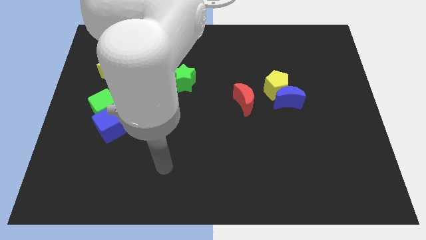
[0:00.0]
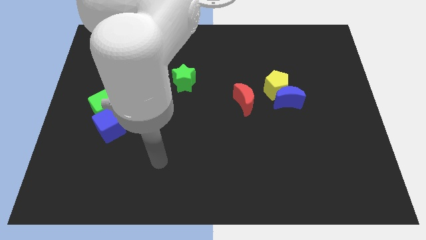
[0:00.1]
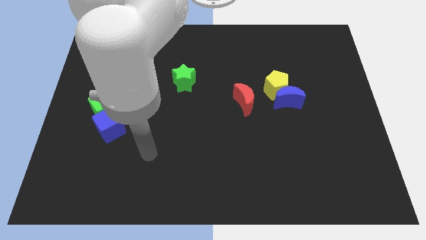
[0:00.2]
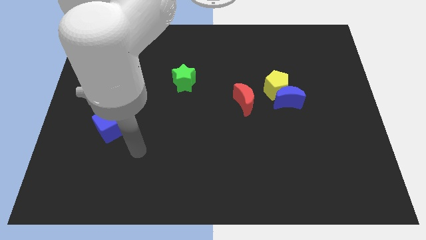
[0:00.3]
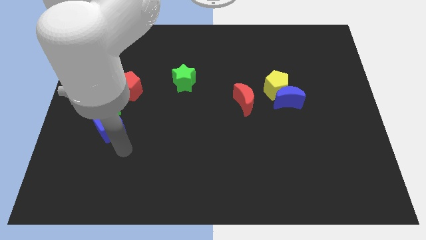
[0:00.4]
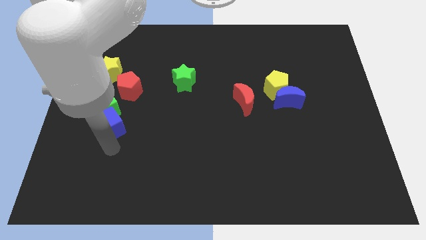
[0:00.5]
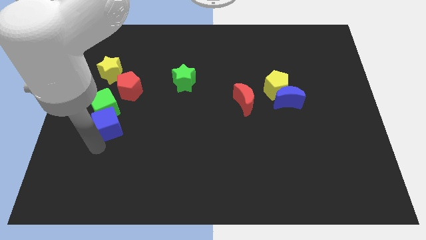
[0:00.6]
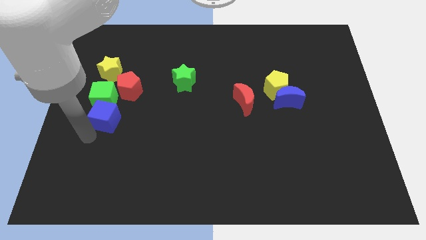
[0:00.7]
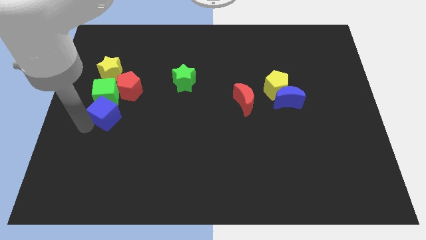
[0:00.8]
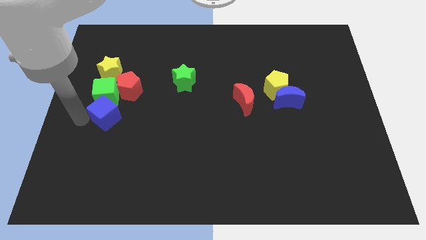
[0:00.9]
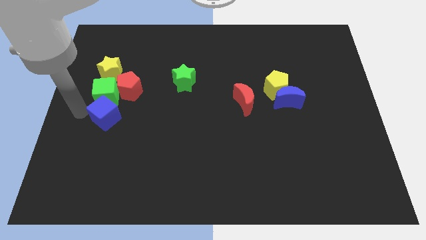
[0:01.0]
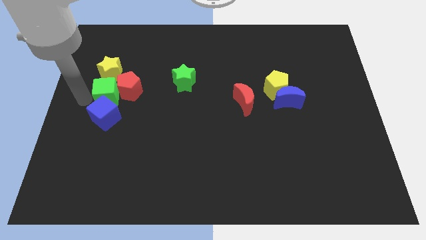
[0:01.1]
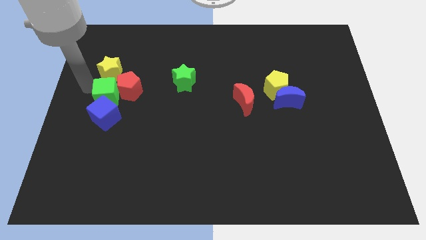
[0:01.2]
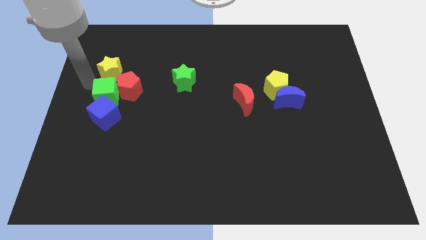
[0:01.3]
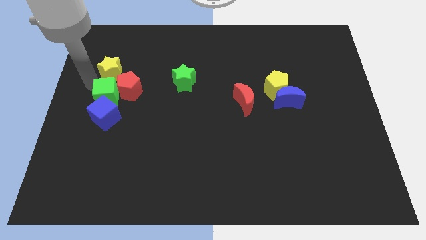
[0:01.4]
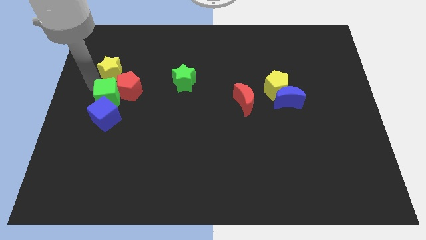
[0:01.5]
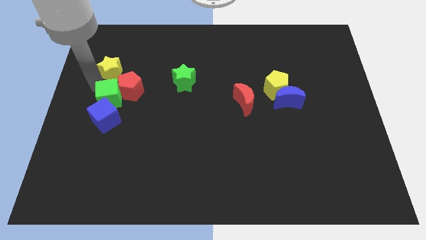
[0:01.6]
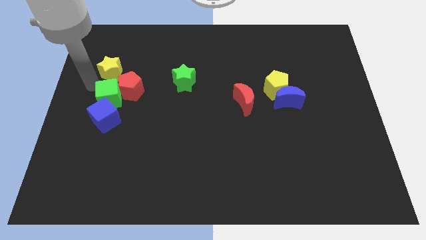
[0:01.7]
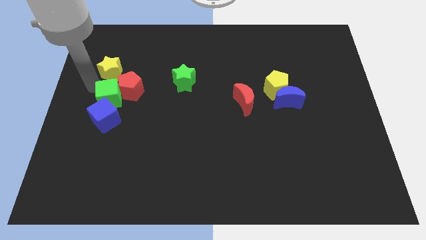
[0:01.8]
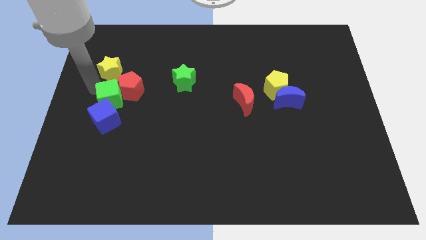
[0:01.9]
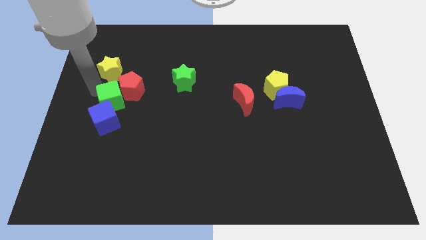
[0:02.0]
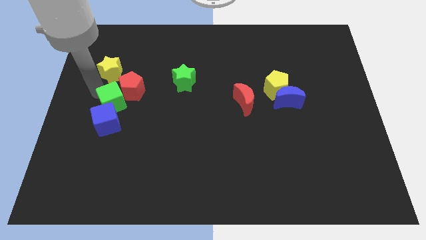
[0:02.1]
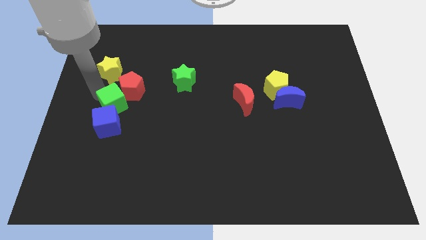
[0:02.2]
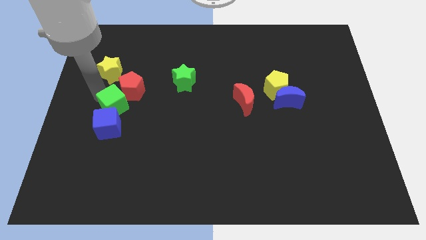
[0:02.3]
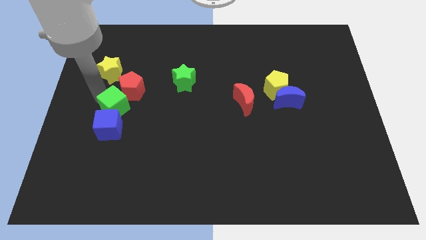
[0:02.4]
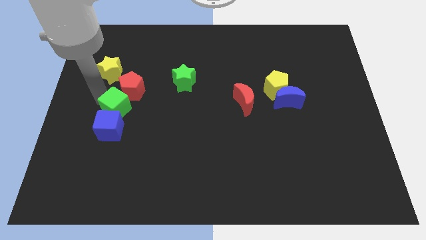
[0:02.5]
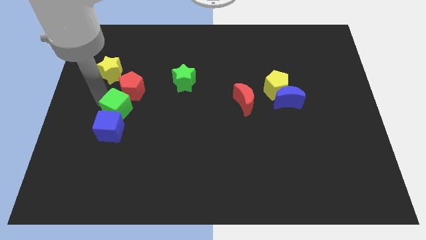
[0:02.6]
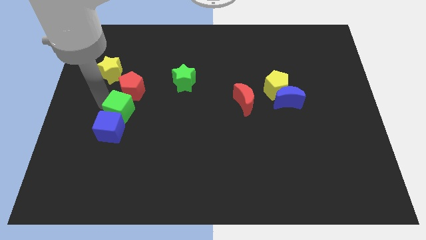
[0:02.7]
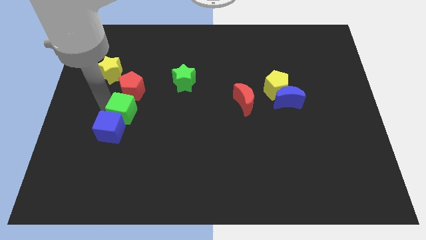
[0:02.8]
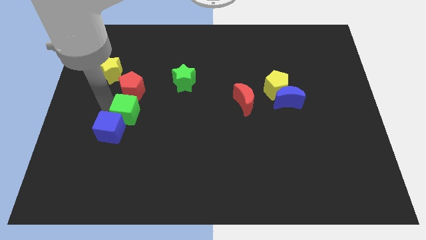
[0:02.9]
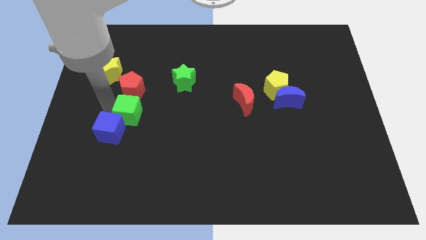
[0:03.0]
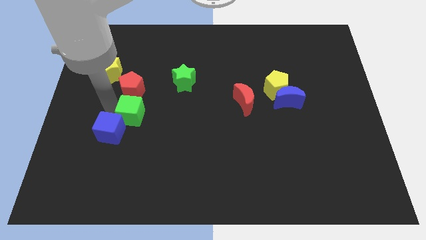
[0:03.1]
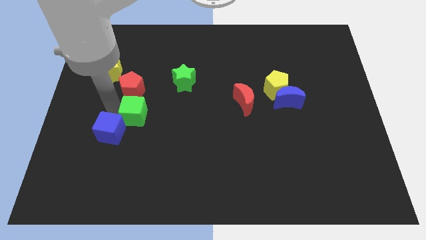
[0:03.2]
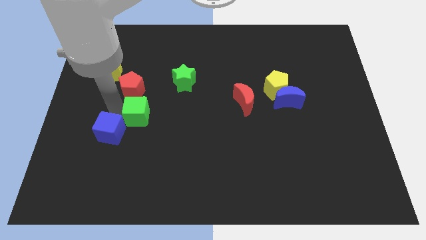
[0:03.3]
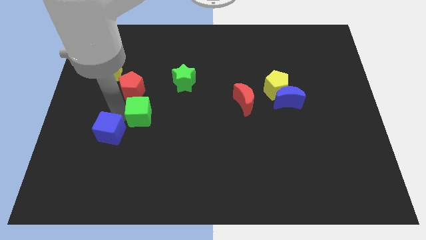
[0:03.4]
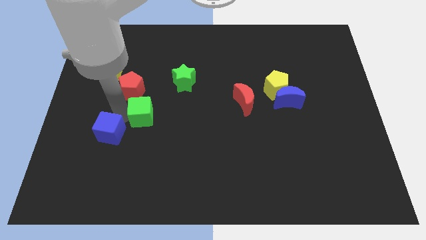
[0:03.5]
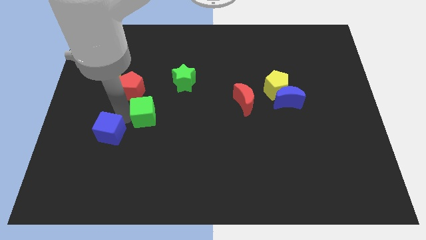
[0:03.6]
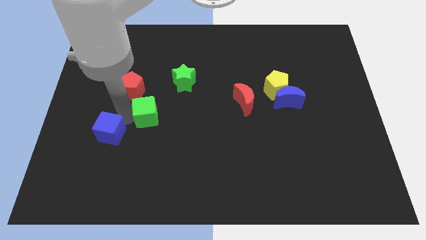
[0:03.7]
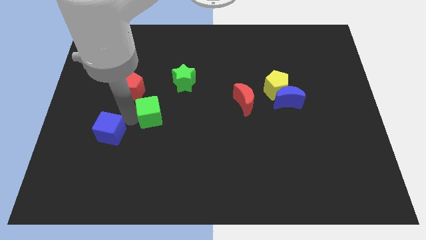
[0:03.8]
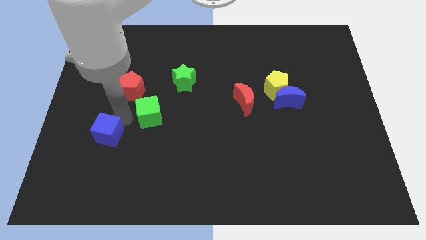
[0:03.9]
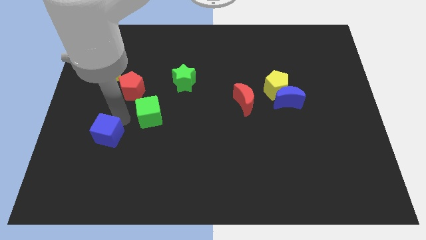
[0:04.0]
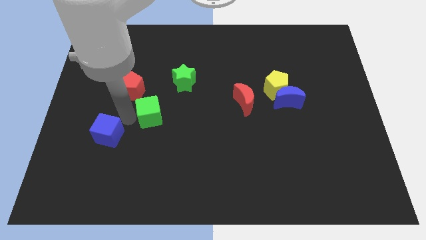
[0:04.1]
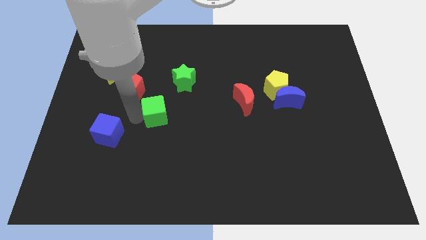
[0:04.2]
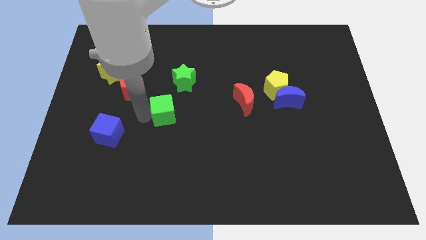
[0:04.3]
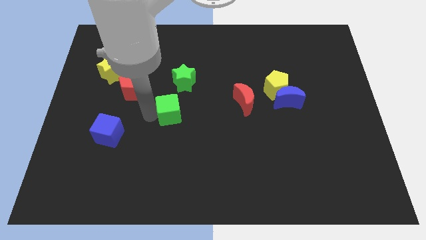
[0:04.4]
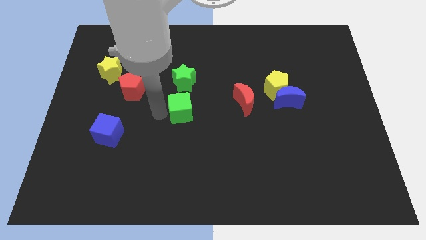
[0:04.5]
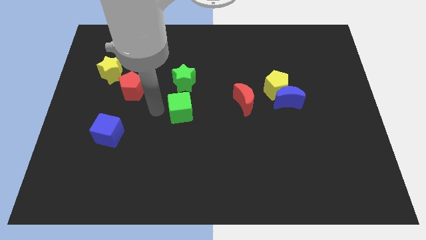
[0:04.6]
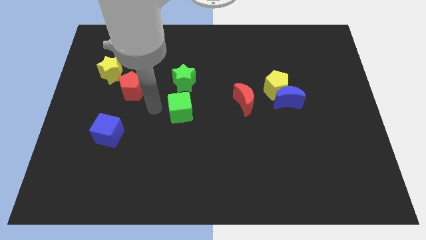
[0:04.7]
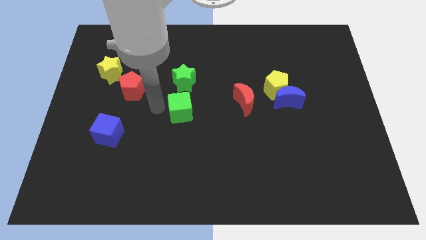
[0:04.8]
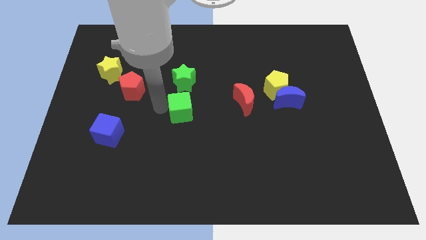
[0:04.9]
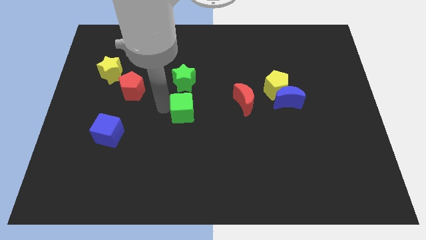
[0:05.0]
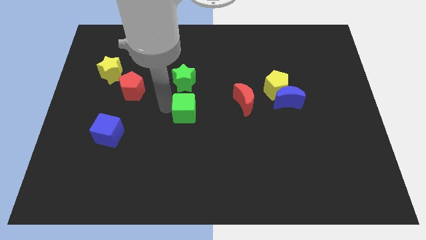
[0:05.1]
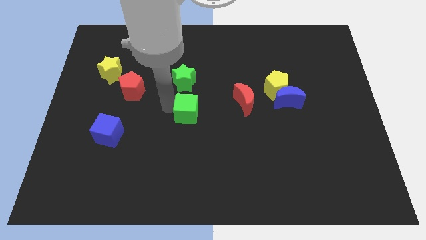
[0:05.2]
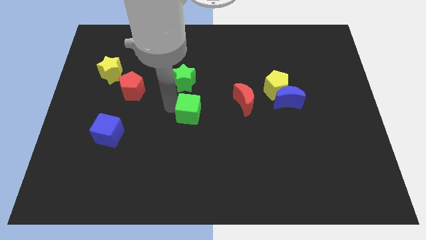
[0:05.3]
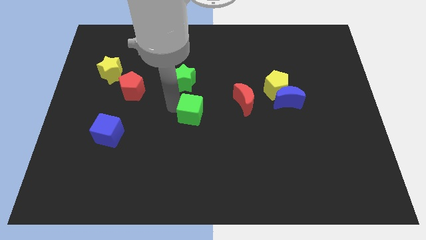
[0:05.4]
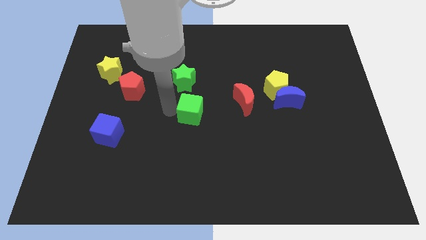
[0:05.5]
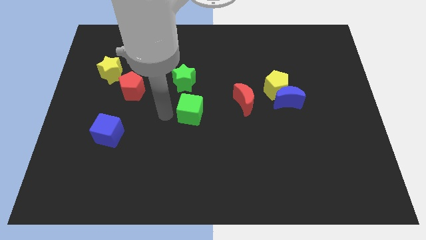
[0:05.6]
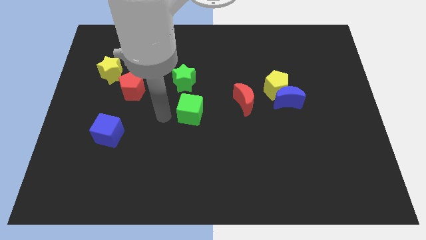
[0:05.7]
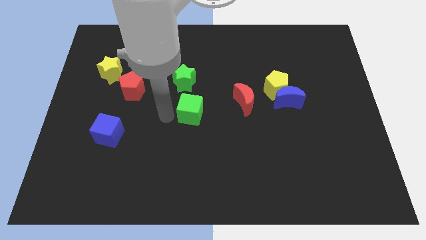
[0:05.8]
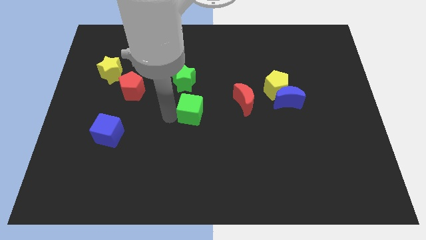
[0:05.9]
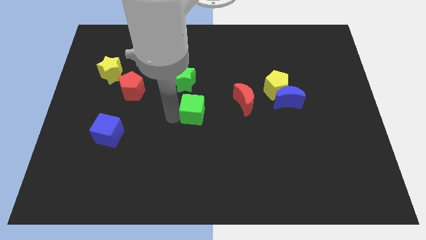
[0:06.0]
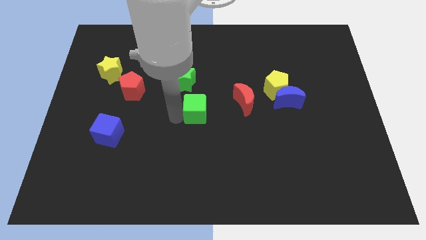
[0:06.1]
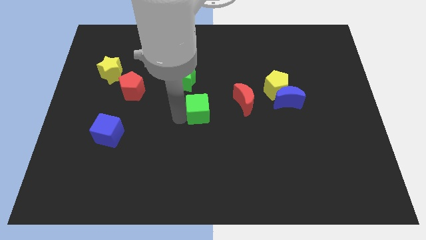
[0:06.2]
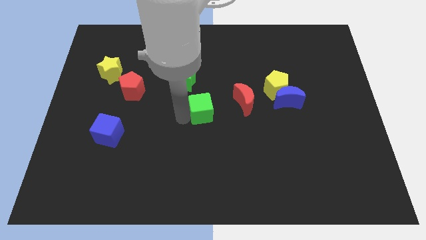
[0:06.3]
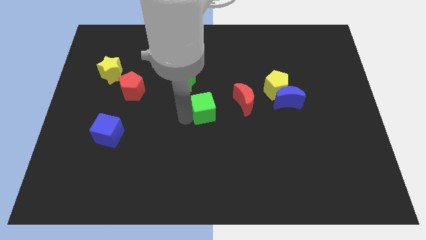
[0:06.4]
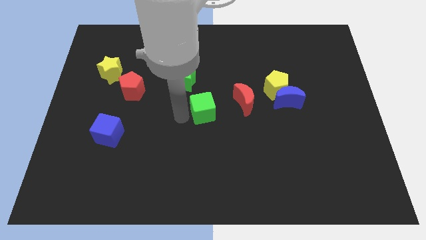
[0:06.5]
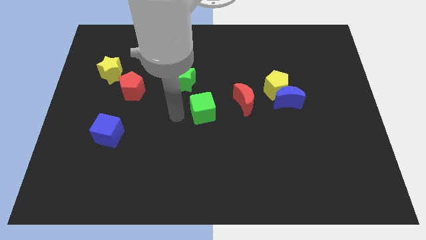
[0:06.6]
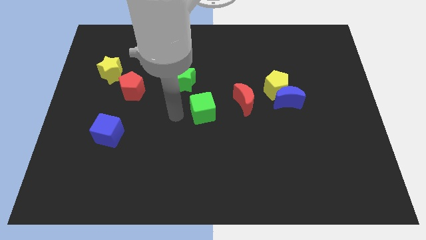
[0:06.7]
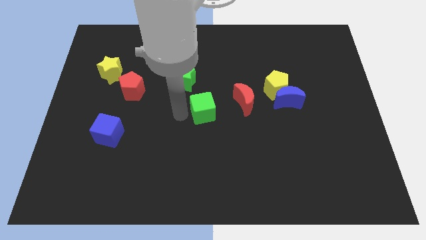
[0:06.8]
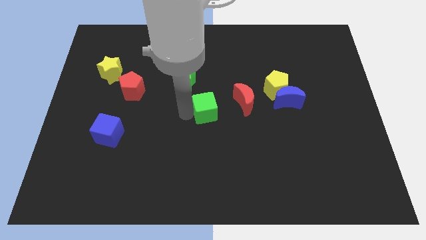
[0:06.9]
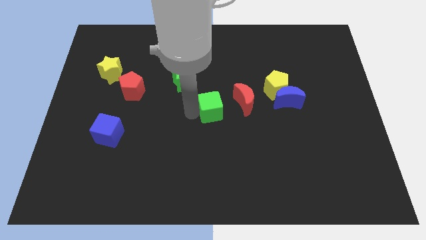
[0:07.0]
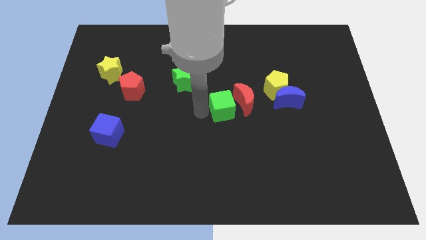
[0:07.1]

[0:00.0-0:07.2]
put the green cube to the red moon
